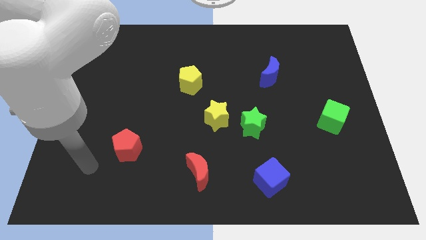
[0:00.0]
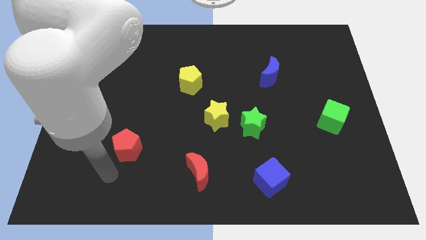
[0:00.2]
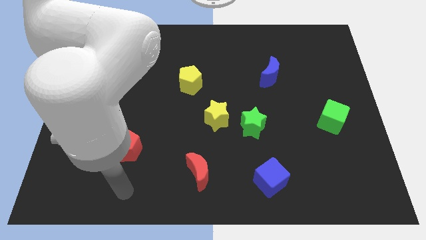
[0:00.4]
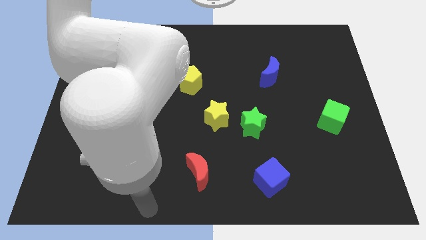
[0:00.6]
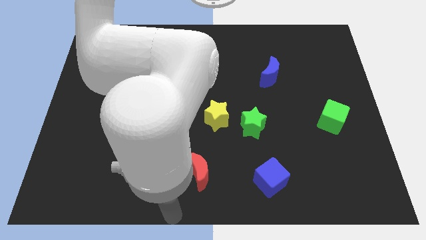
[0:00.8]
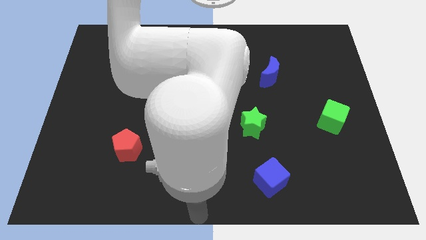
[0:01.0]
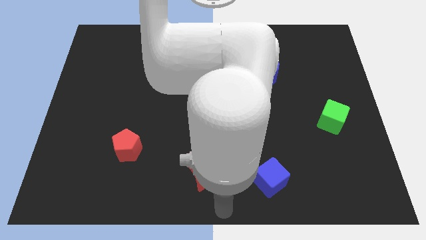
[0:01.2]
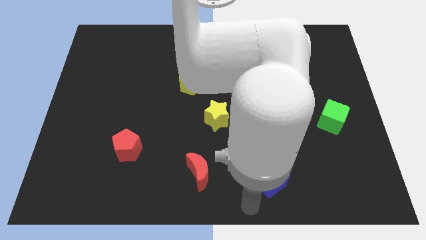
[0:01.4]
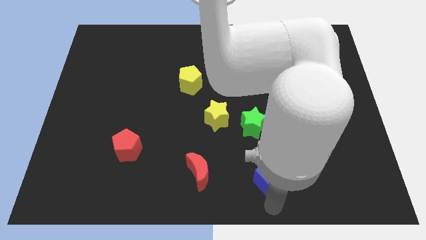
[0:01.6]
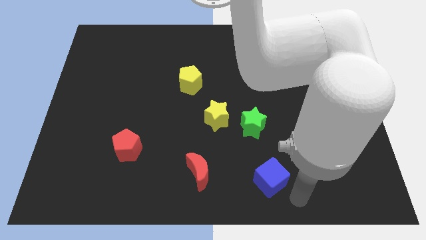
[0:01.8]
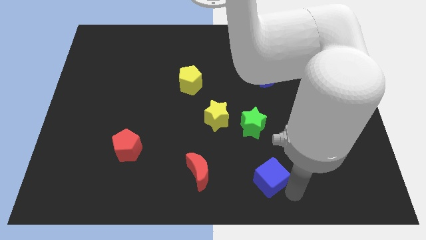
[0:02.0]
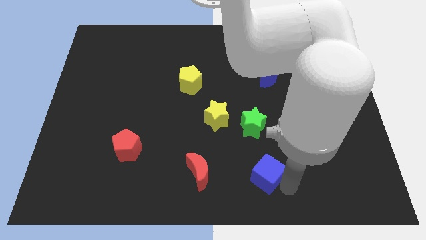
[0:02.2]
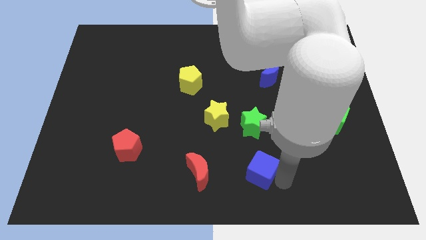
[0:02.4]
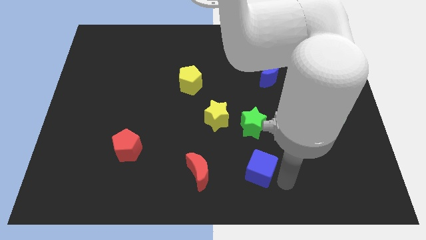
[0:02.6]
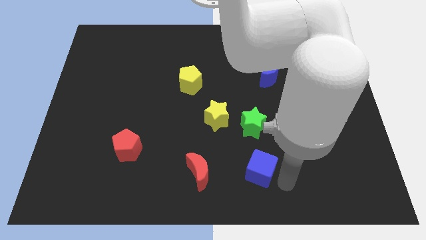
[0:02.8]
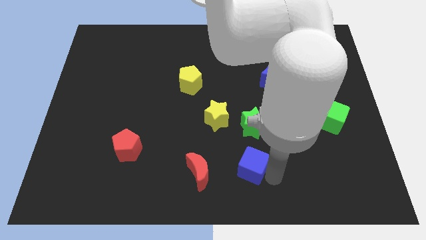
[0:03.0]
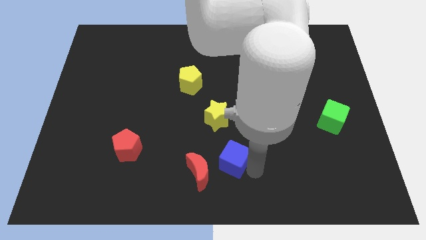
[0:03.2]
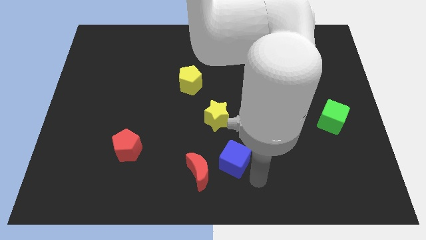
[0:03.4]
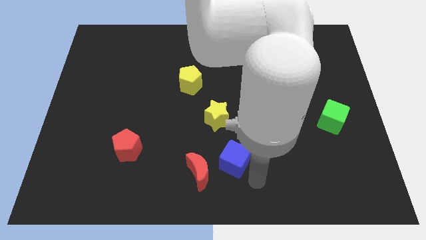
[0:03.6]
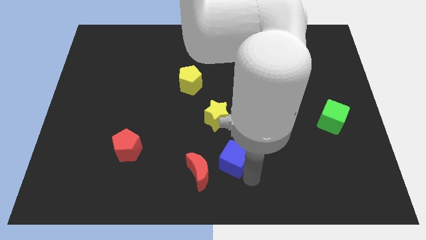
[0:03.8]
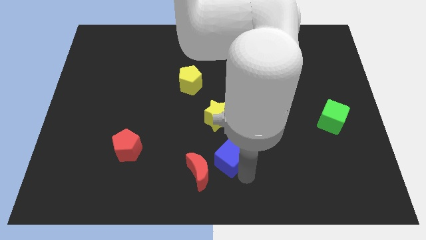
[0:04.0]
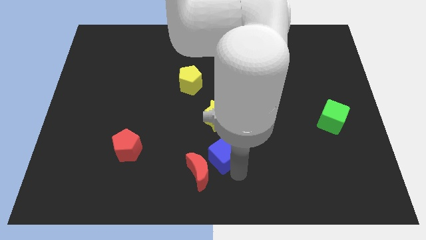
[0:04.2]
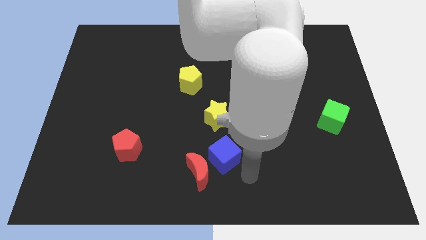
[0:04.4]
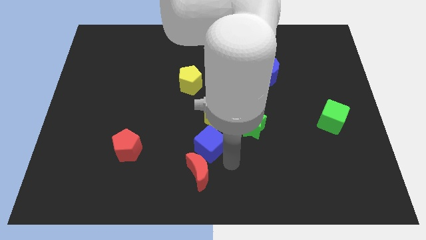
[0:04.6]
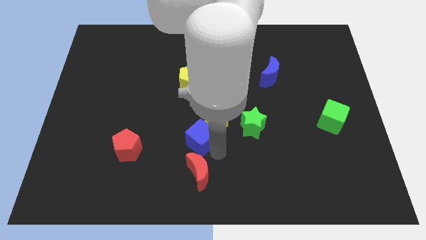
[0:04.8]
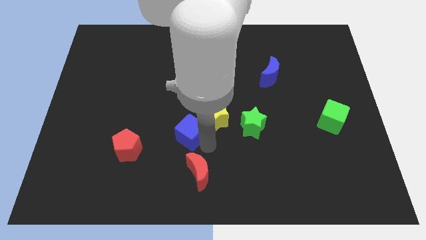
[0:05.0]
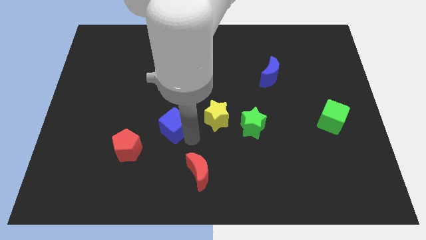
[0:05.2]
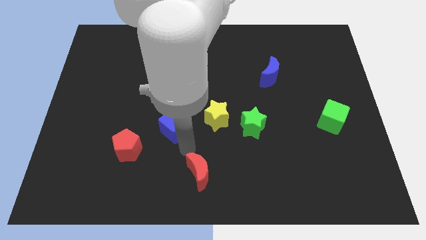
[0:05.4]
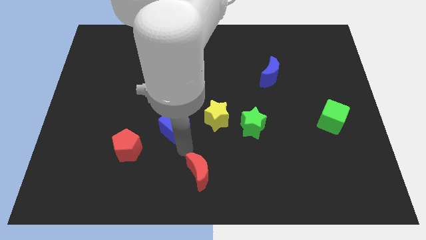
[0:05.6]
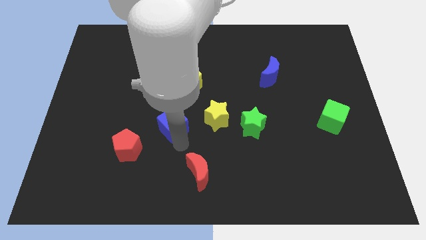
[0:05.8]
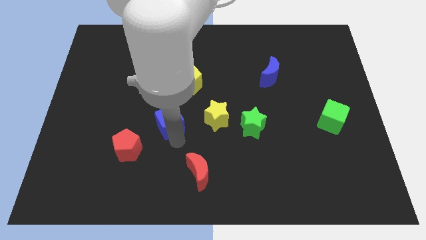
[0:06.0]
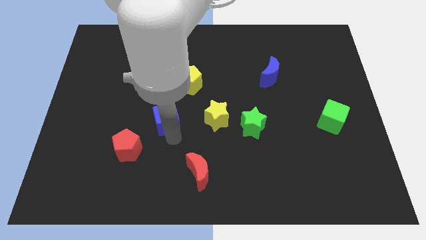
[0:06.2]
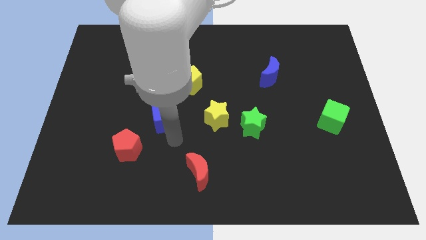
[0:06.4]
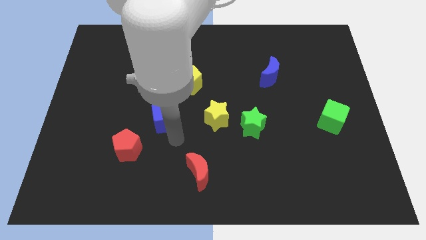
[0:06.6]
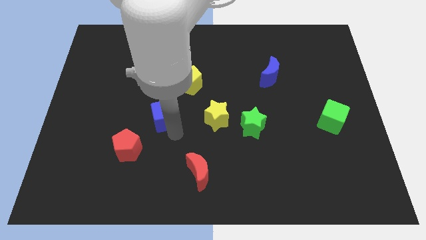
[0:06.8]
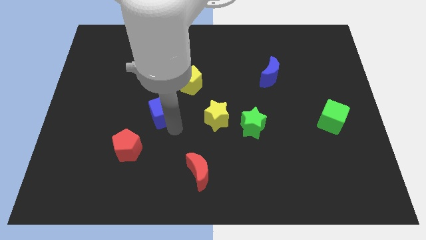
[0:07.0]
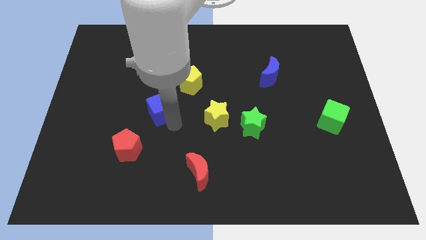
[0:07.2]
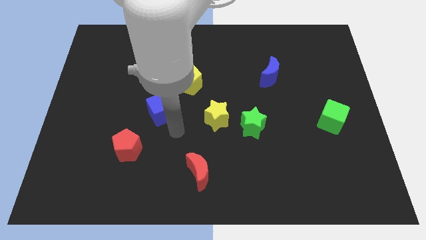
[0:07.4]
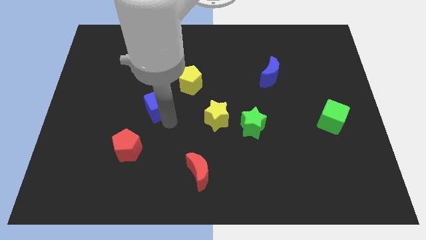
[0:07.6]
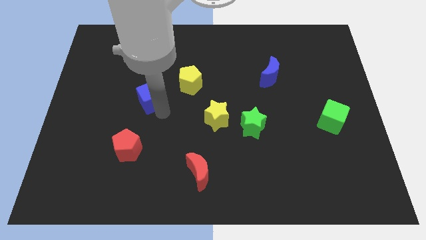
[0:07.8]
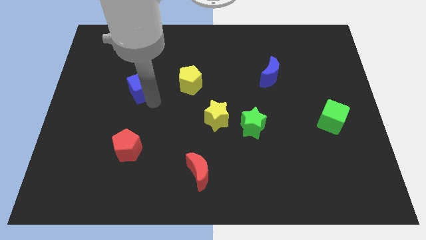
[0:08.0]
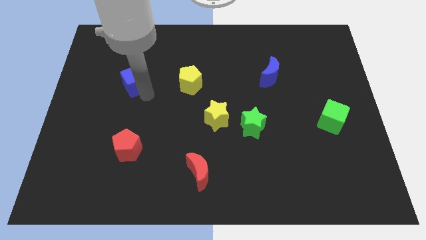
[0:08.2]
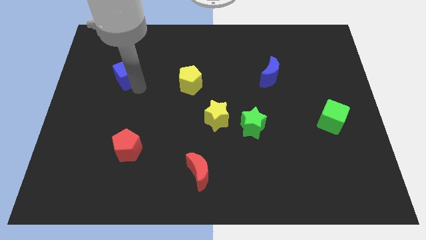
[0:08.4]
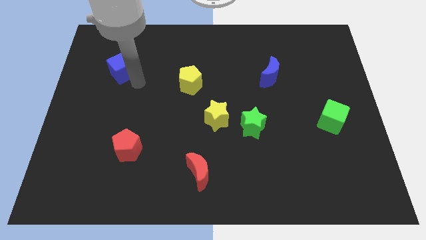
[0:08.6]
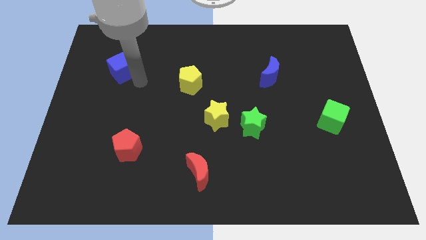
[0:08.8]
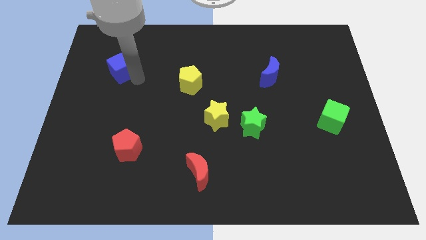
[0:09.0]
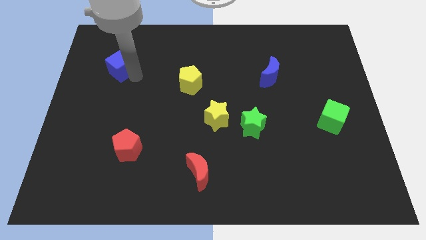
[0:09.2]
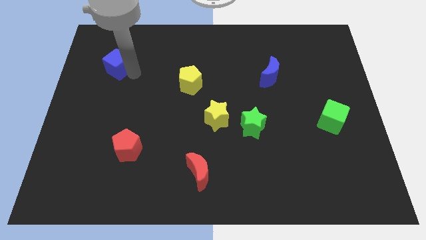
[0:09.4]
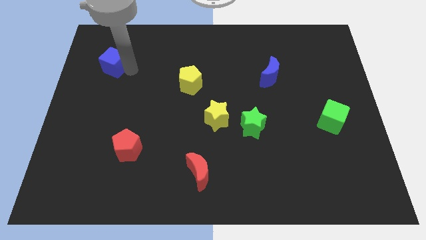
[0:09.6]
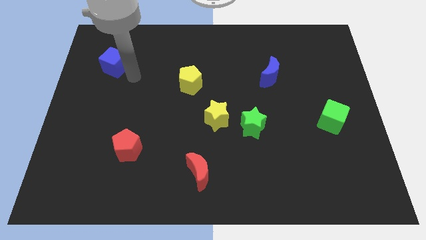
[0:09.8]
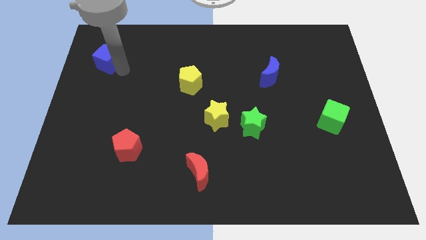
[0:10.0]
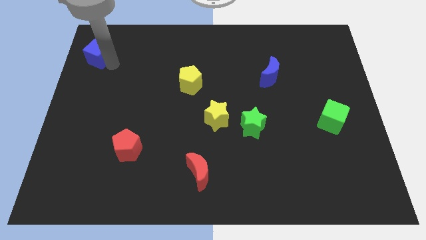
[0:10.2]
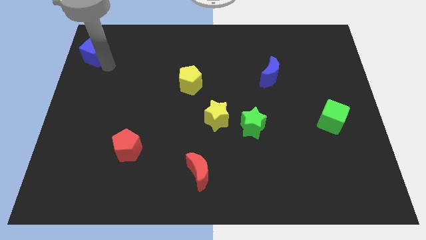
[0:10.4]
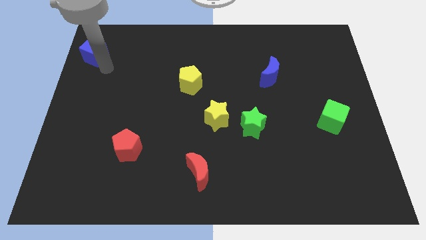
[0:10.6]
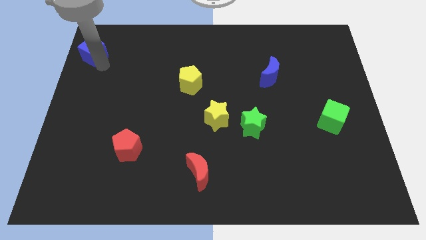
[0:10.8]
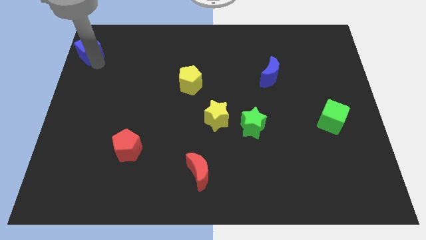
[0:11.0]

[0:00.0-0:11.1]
push the blue cube to the top left

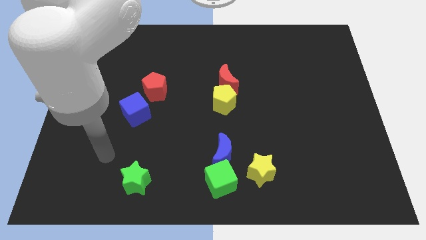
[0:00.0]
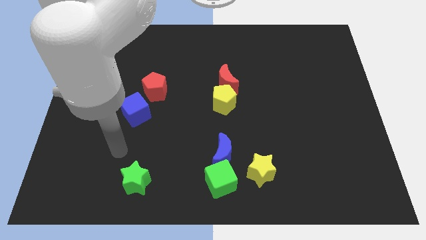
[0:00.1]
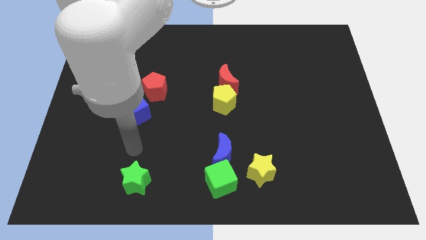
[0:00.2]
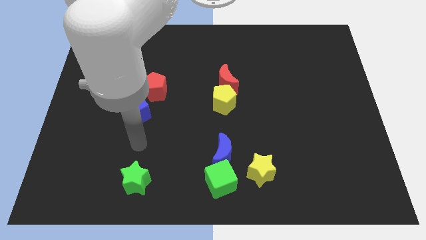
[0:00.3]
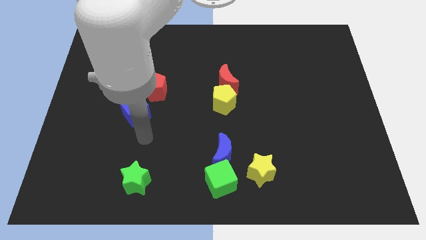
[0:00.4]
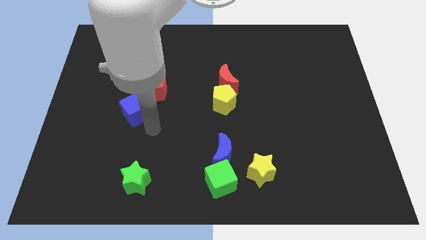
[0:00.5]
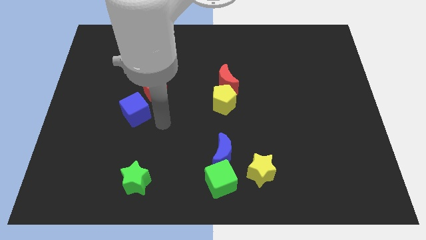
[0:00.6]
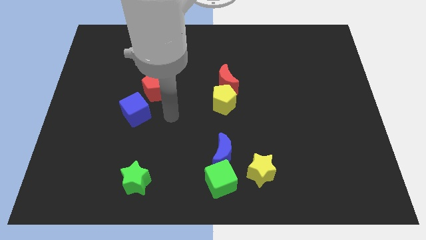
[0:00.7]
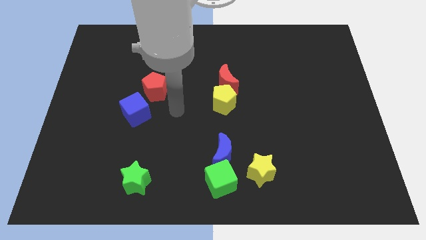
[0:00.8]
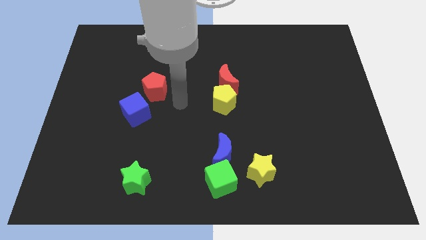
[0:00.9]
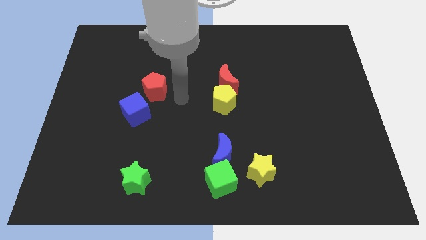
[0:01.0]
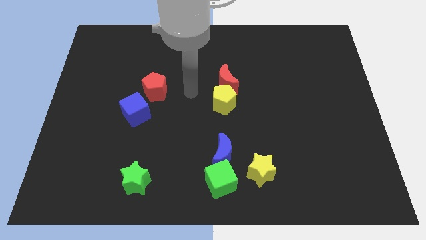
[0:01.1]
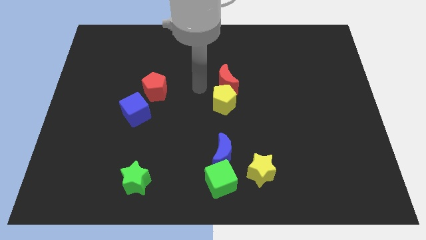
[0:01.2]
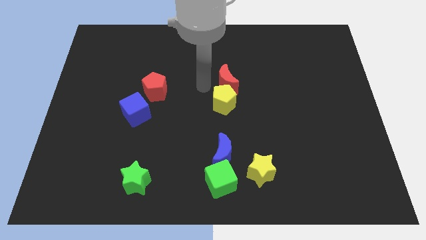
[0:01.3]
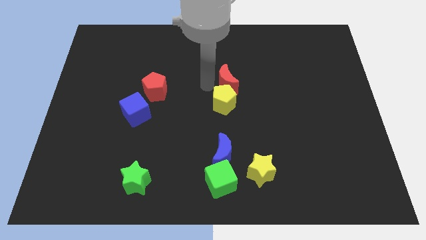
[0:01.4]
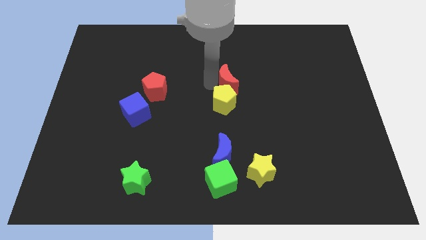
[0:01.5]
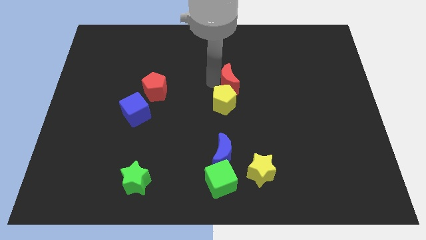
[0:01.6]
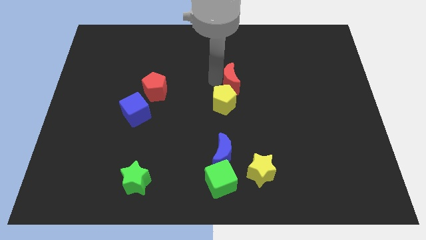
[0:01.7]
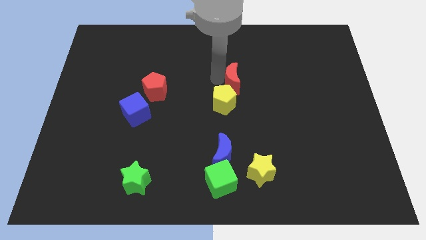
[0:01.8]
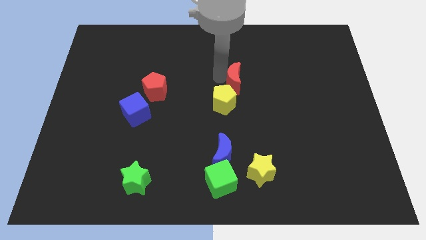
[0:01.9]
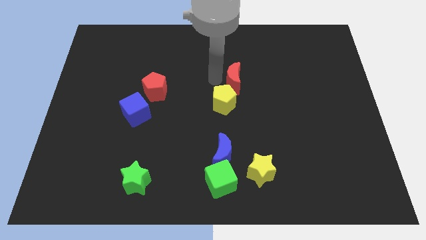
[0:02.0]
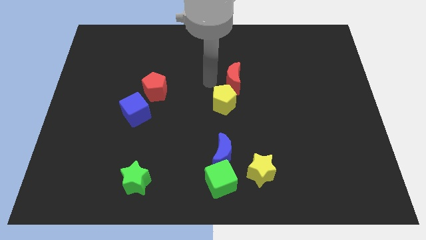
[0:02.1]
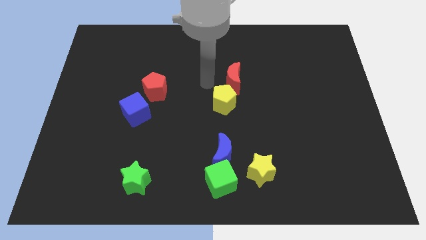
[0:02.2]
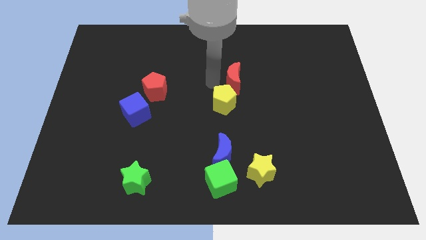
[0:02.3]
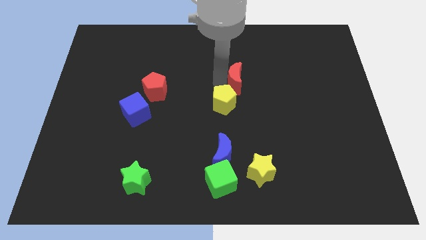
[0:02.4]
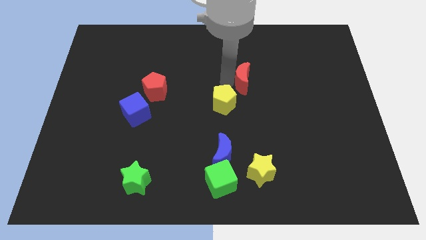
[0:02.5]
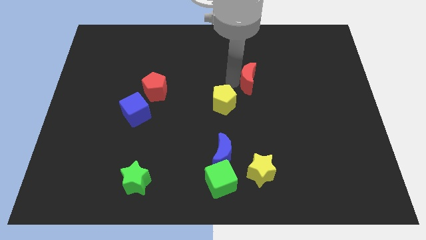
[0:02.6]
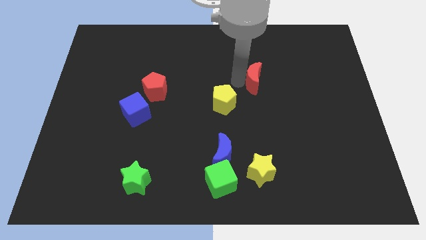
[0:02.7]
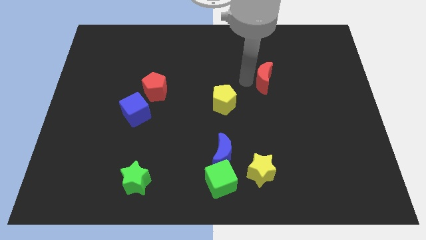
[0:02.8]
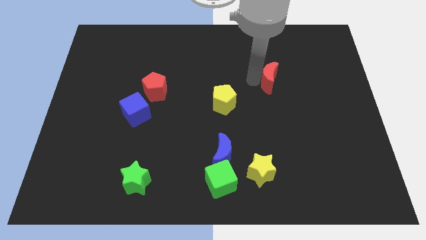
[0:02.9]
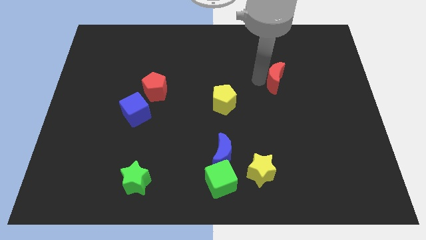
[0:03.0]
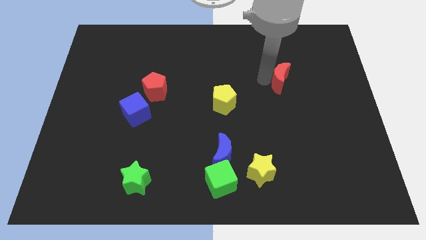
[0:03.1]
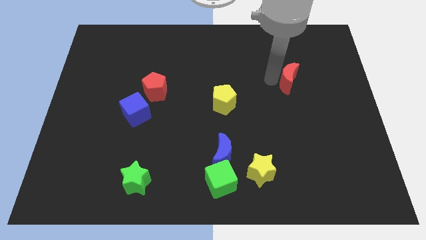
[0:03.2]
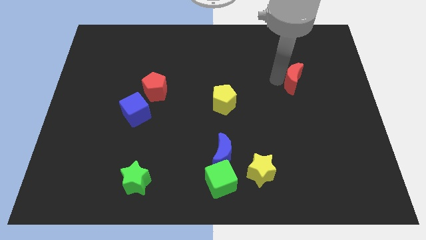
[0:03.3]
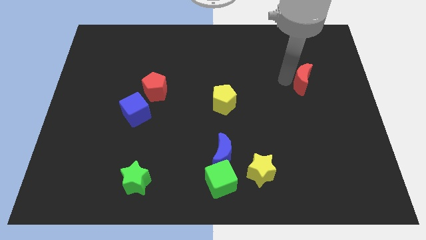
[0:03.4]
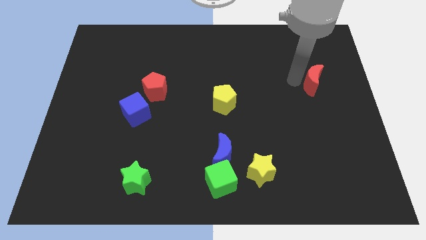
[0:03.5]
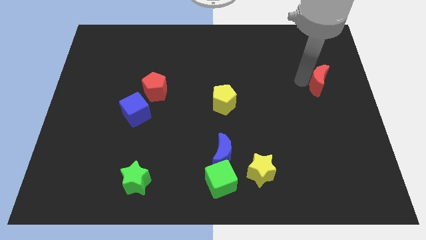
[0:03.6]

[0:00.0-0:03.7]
move the red moon to the right side
